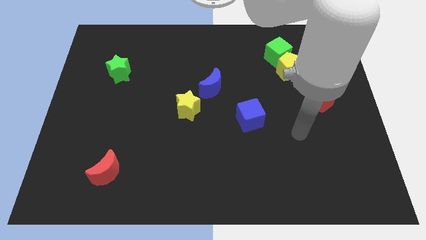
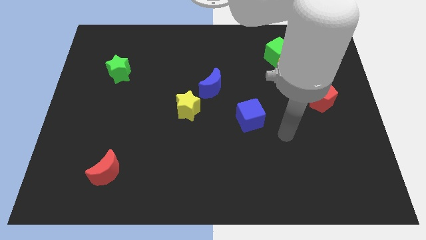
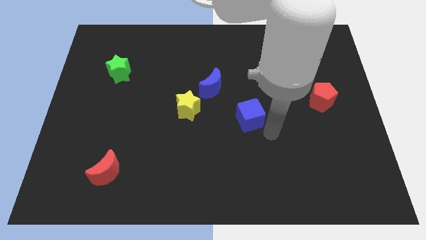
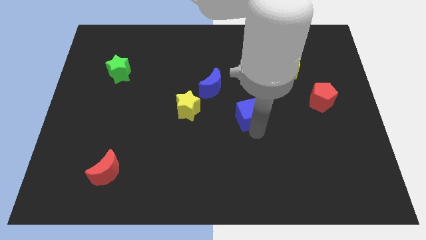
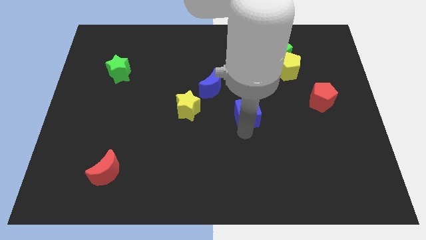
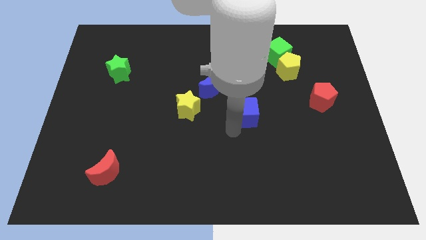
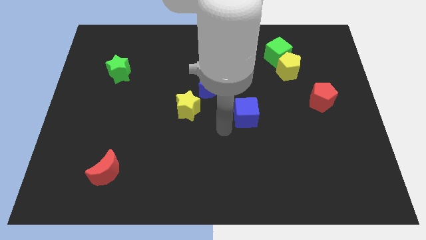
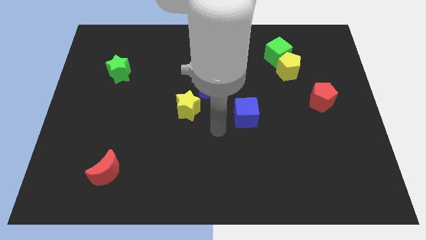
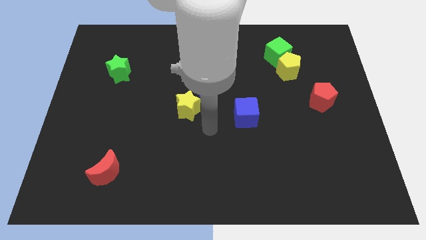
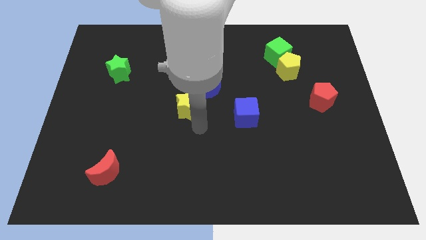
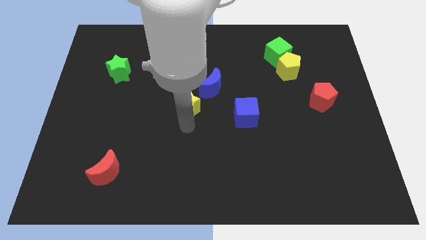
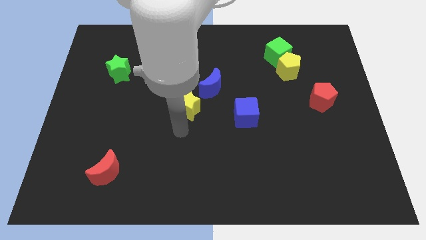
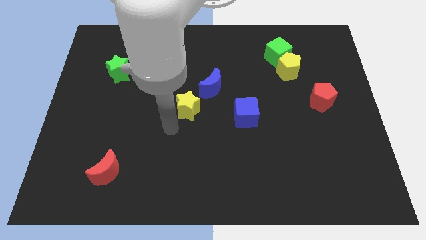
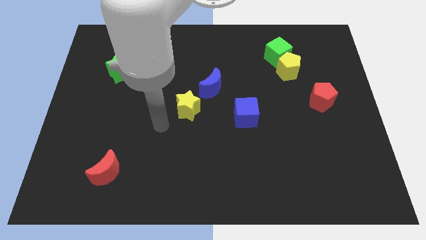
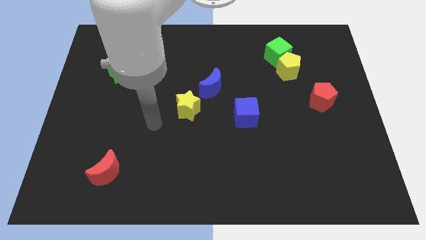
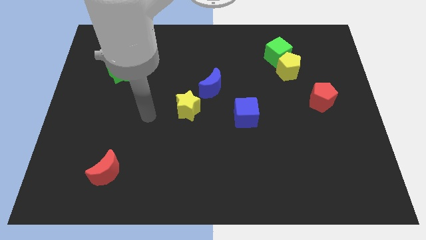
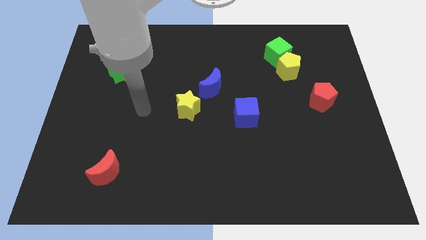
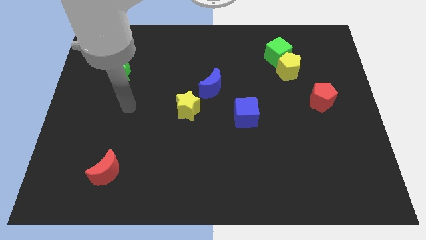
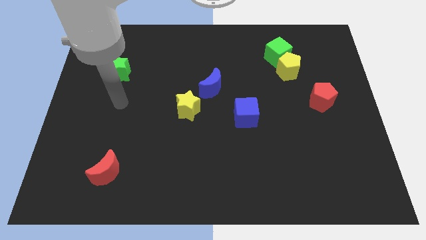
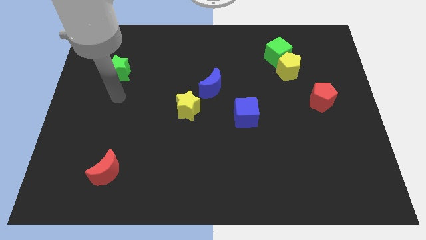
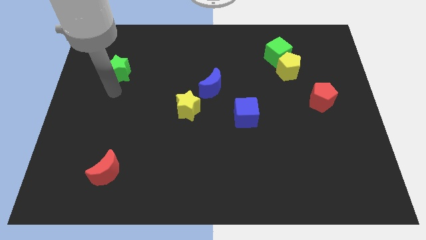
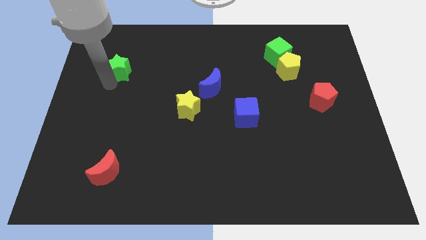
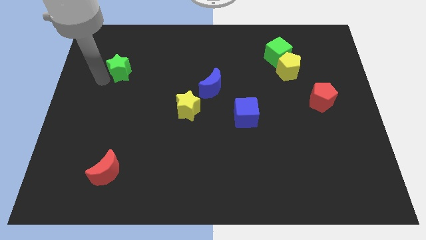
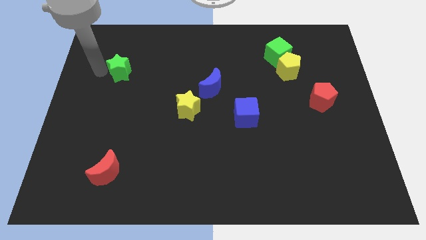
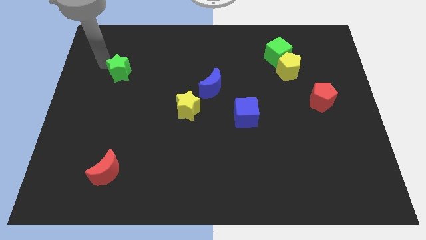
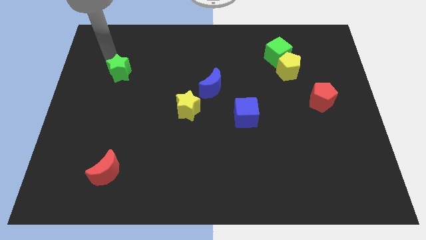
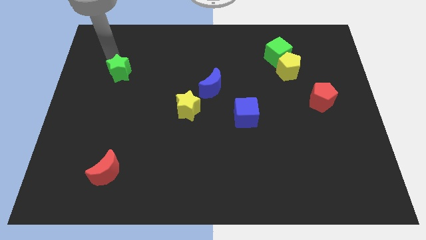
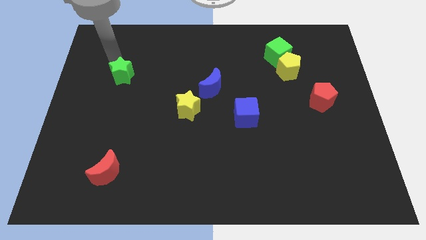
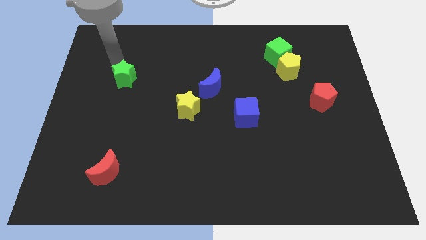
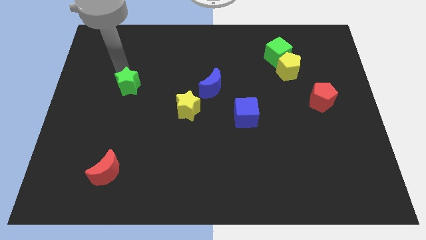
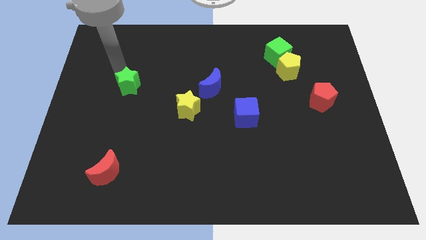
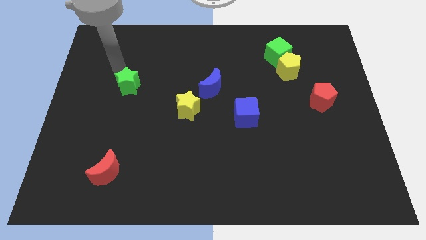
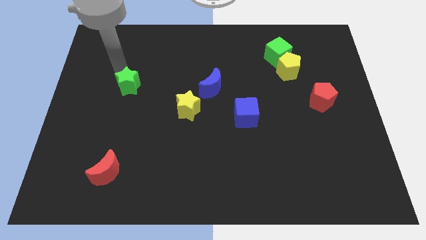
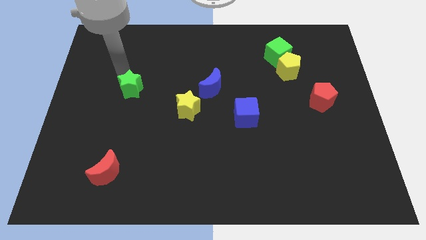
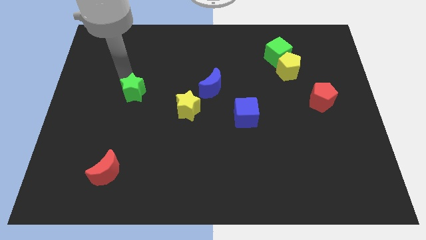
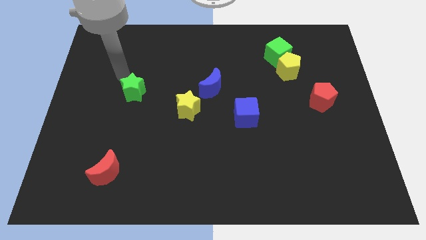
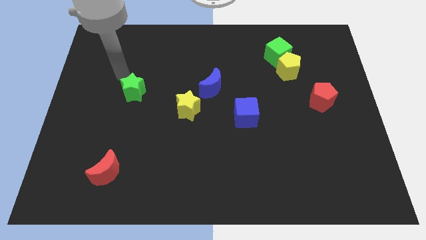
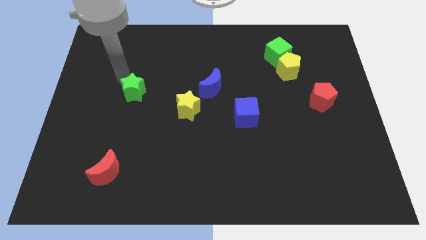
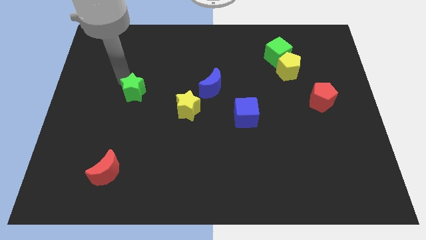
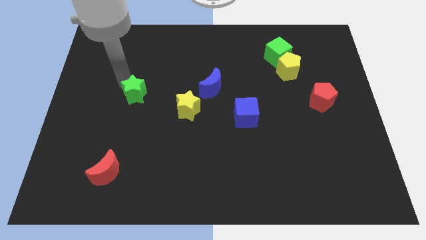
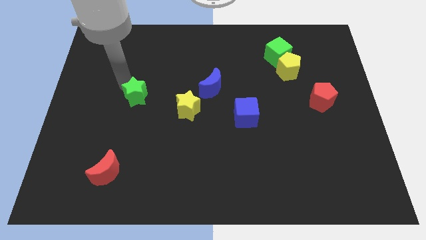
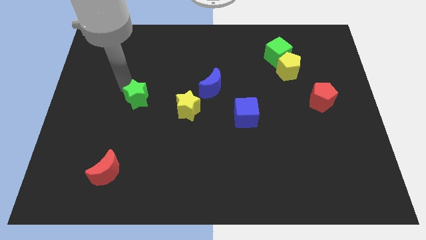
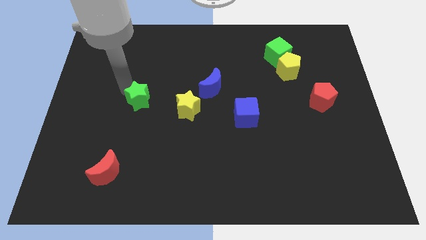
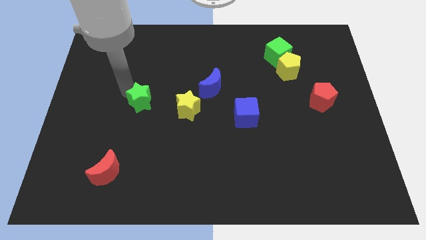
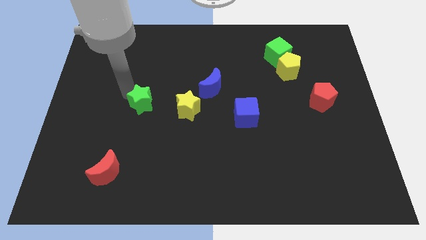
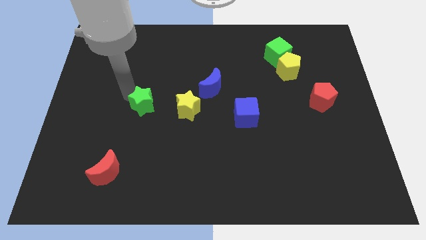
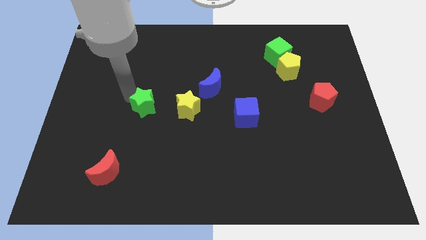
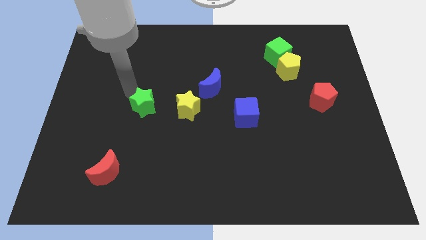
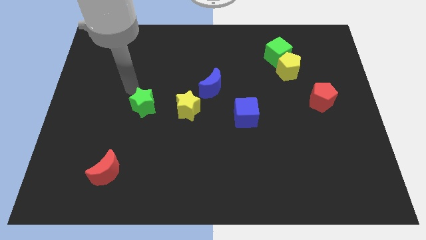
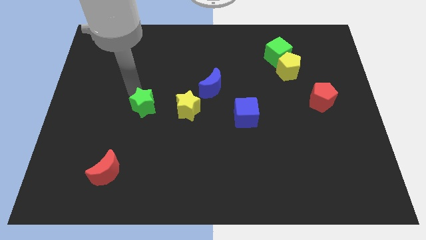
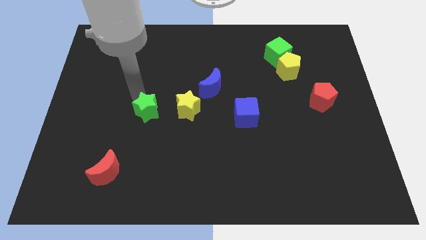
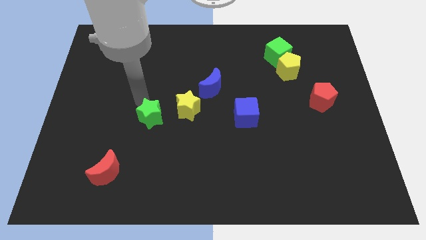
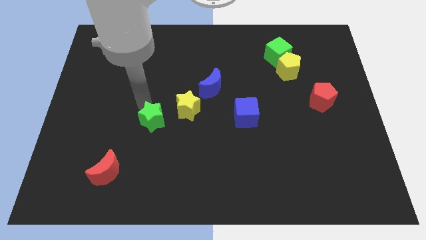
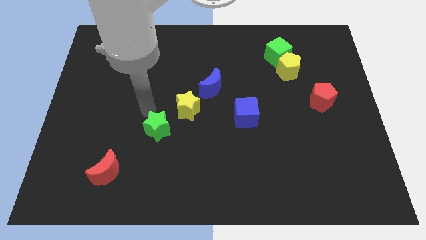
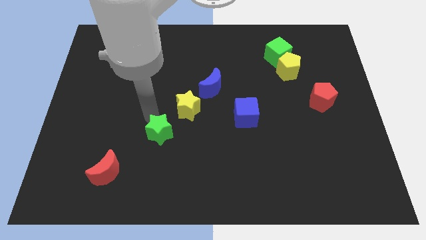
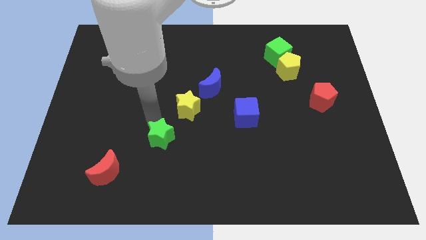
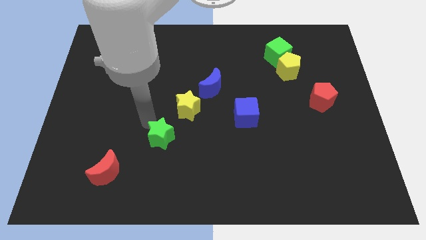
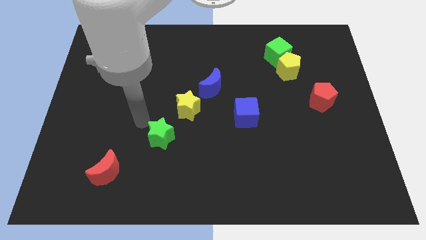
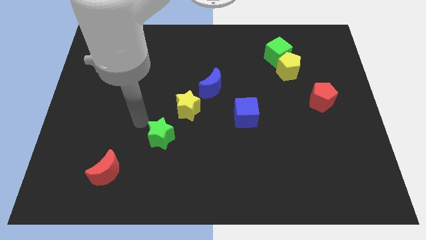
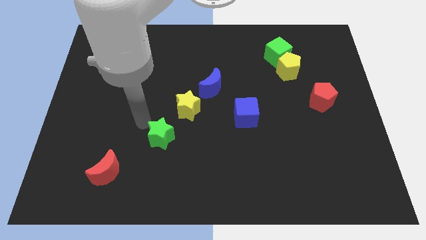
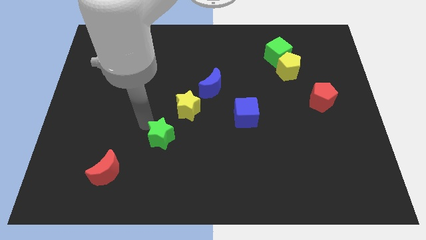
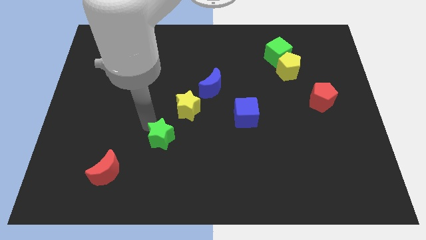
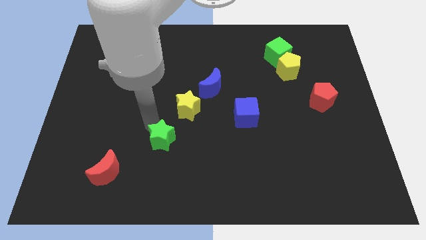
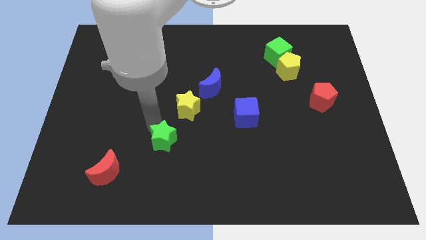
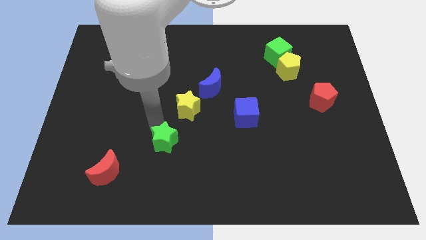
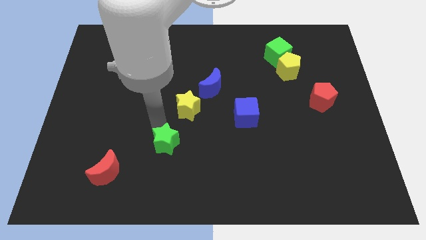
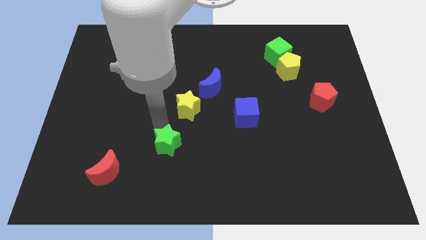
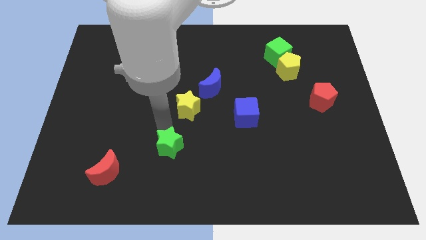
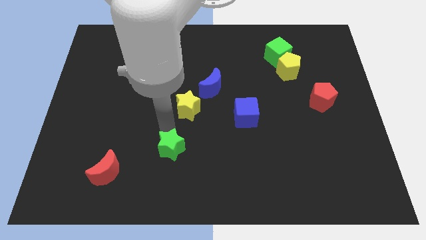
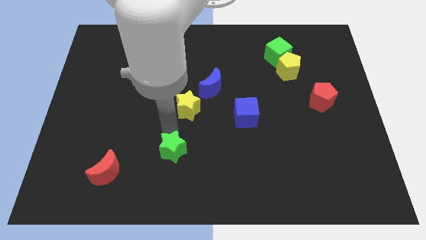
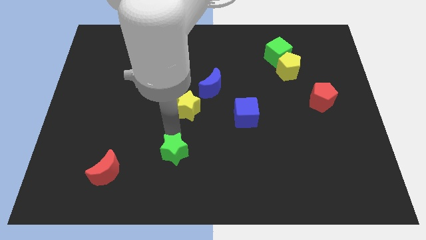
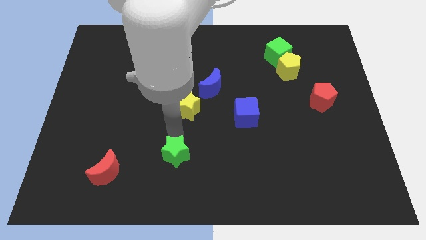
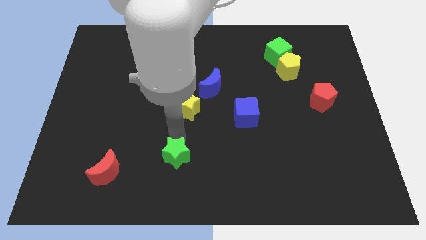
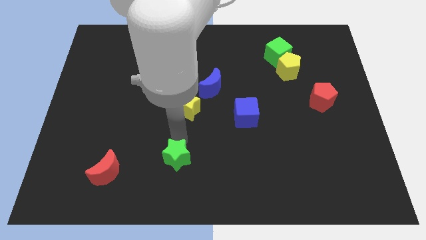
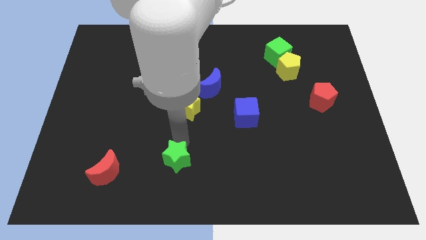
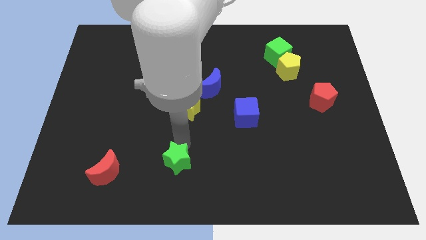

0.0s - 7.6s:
move the green star to the bottom side
